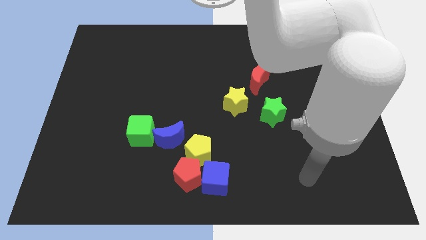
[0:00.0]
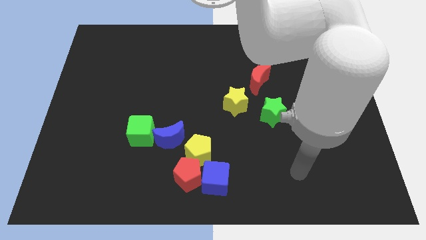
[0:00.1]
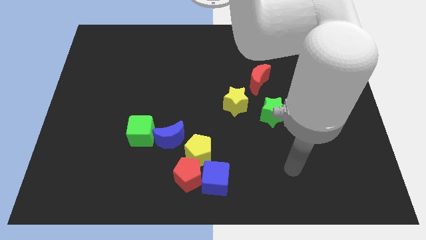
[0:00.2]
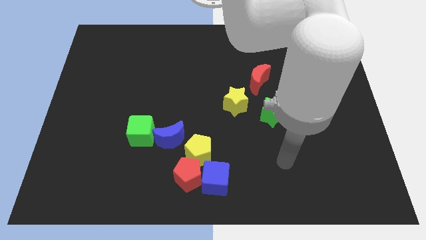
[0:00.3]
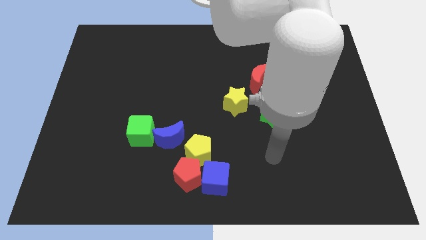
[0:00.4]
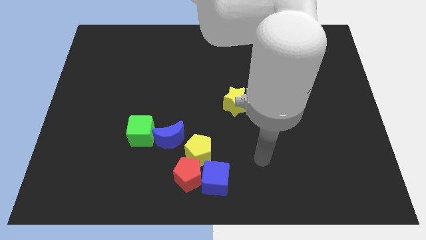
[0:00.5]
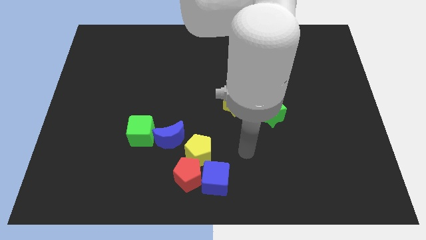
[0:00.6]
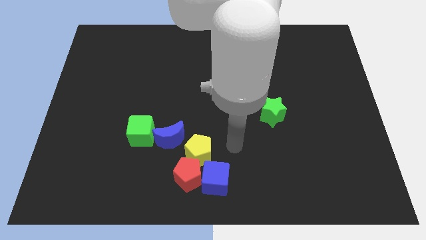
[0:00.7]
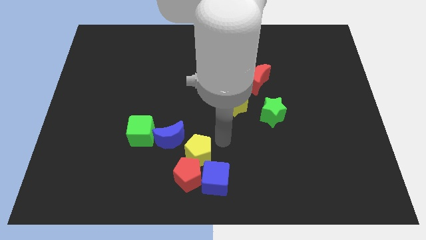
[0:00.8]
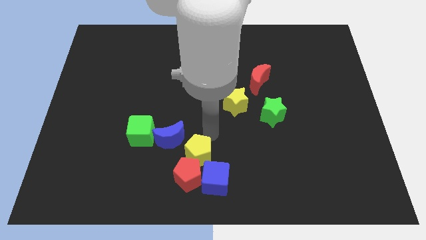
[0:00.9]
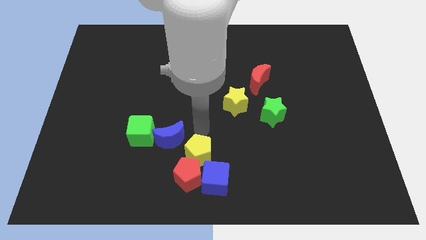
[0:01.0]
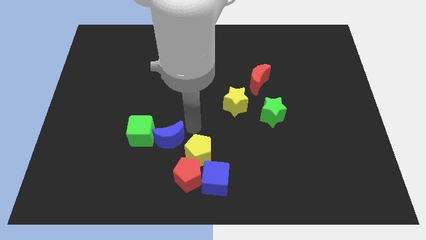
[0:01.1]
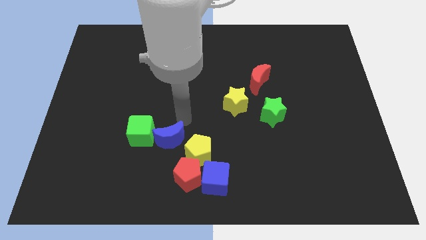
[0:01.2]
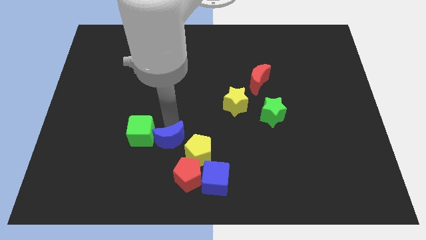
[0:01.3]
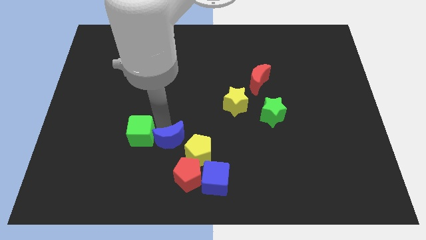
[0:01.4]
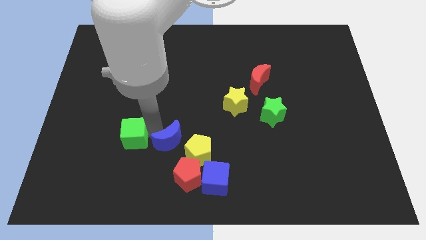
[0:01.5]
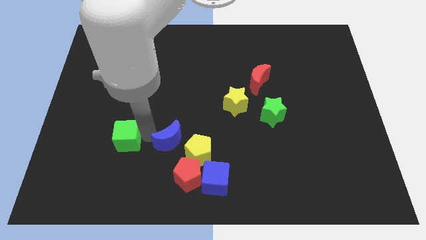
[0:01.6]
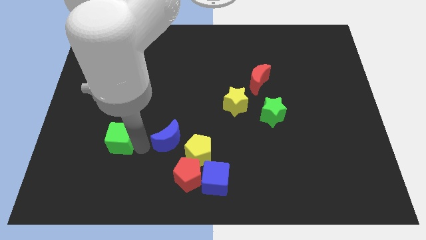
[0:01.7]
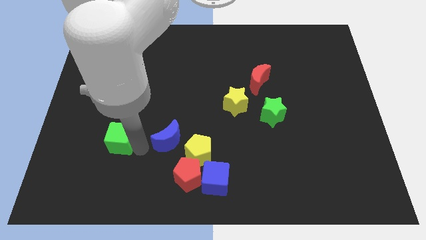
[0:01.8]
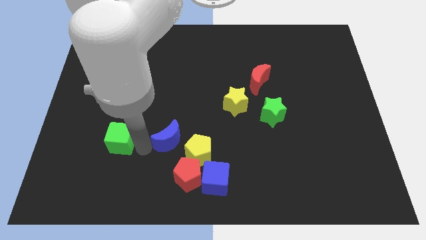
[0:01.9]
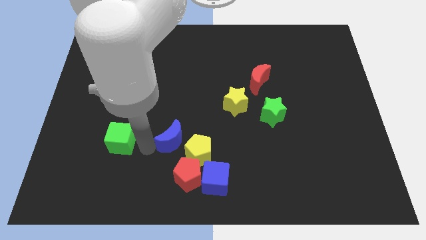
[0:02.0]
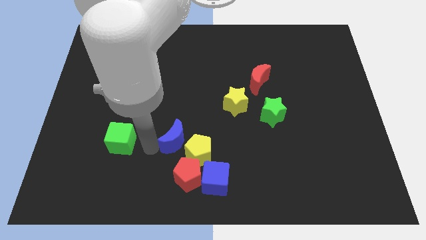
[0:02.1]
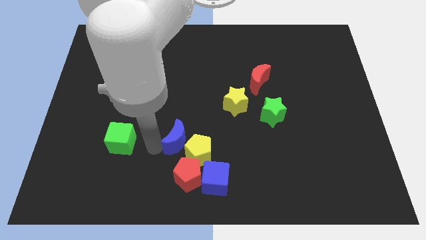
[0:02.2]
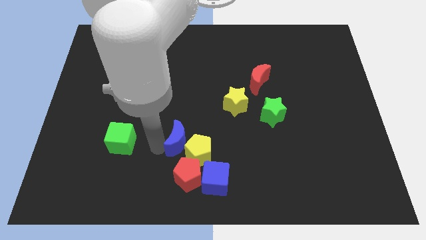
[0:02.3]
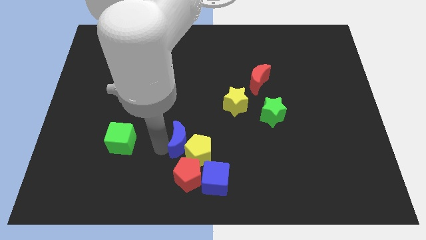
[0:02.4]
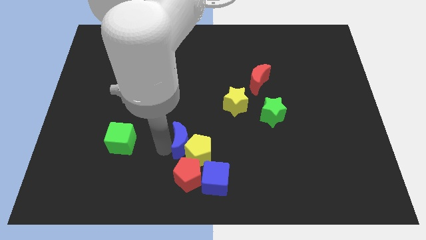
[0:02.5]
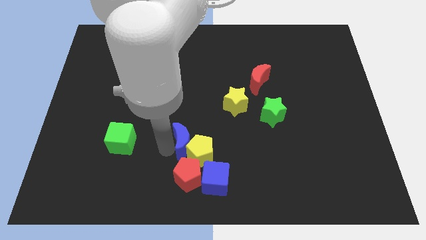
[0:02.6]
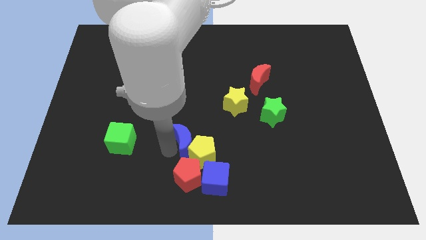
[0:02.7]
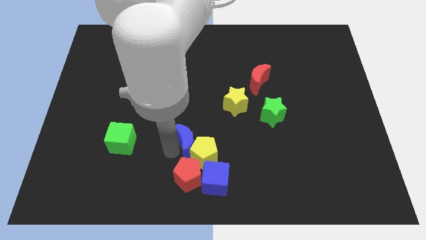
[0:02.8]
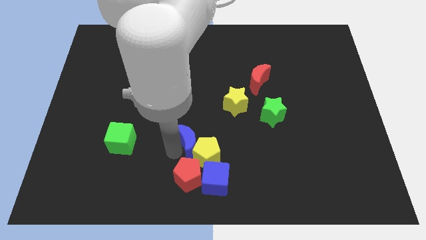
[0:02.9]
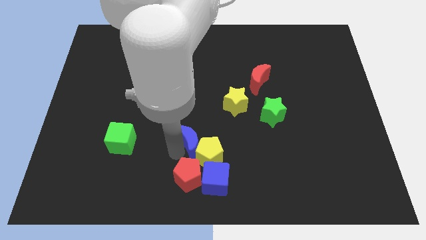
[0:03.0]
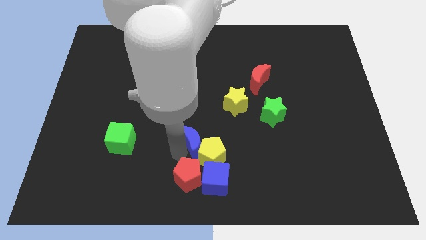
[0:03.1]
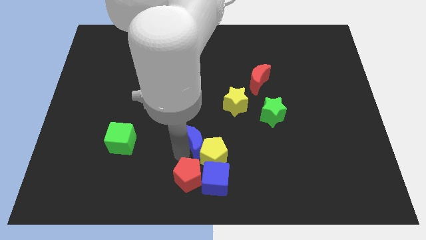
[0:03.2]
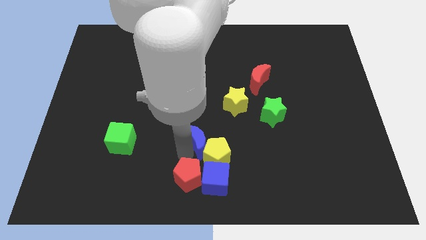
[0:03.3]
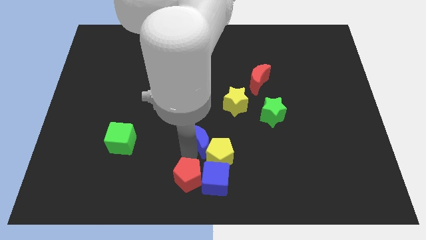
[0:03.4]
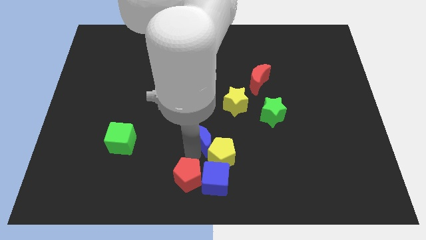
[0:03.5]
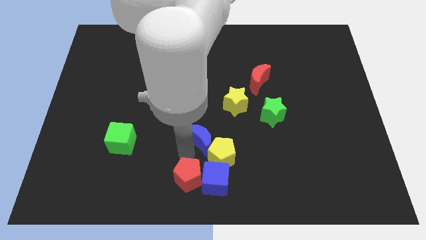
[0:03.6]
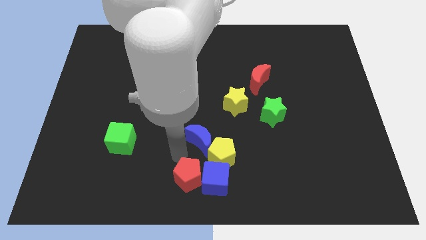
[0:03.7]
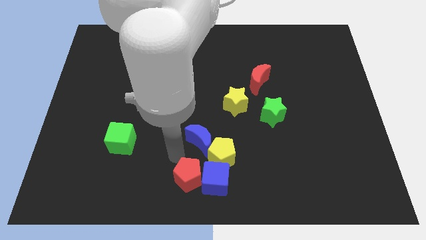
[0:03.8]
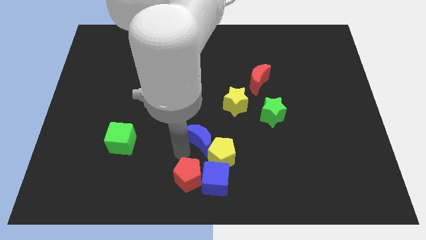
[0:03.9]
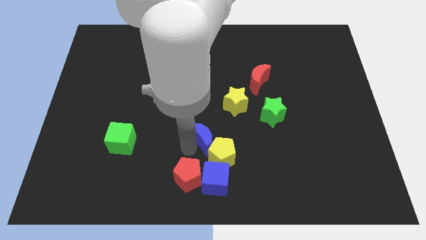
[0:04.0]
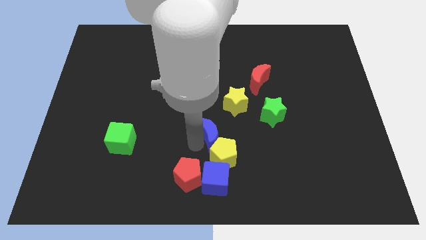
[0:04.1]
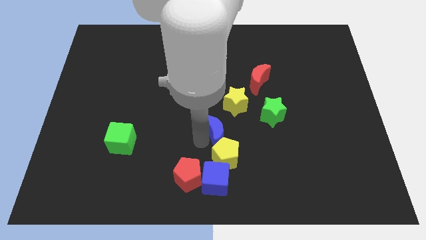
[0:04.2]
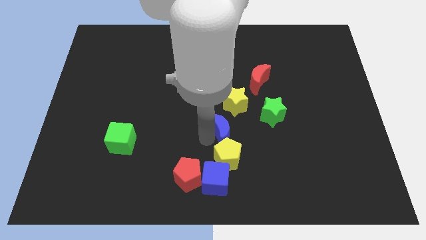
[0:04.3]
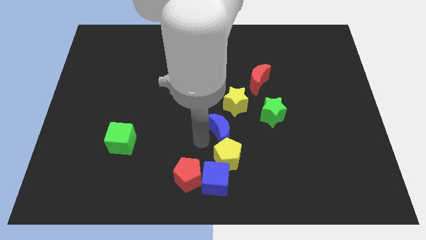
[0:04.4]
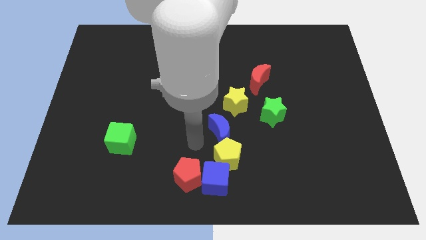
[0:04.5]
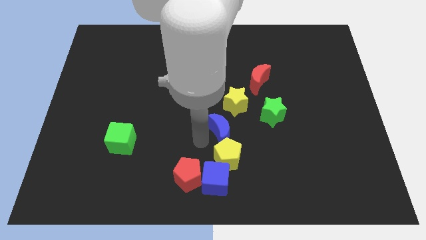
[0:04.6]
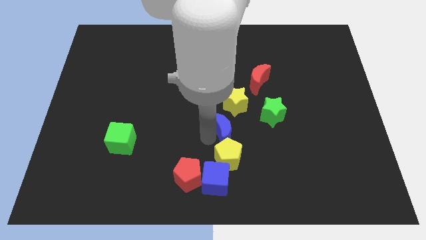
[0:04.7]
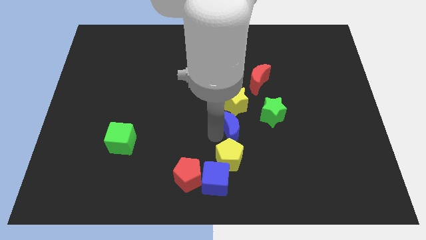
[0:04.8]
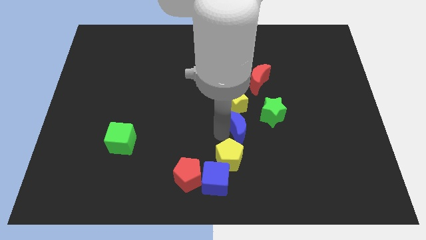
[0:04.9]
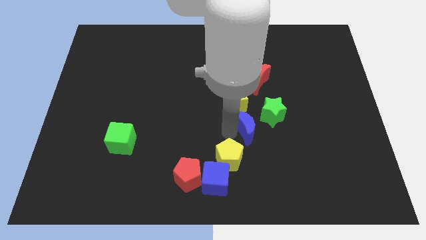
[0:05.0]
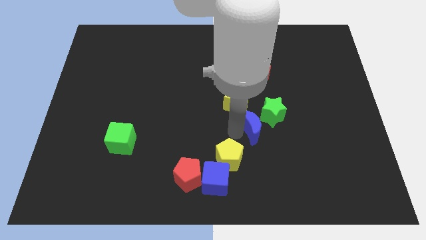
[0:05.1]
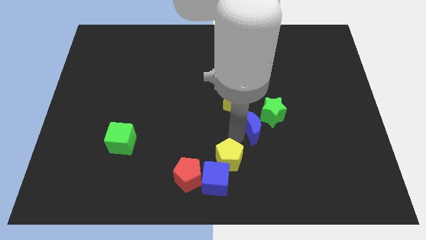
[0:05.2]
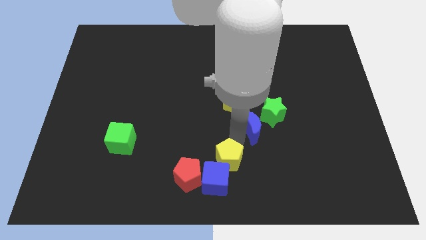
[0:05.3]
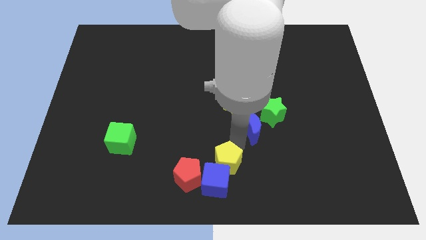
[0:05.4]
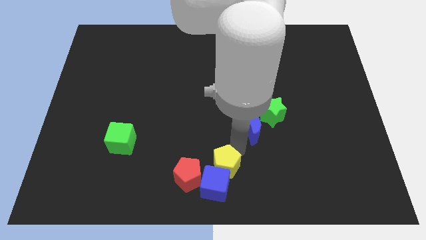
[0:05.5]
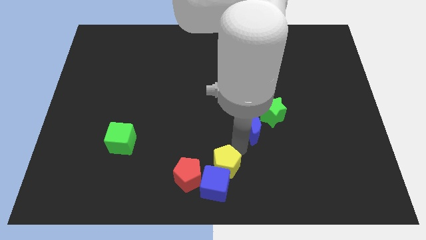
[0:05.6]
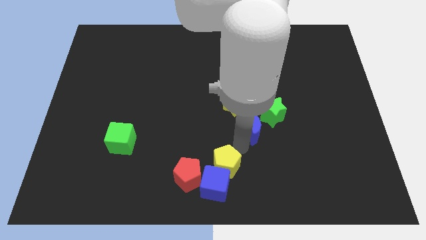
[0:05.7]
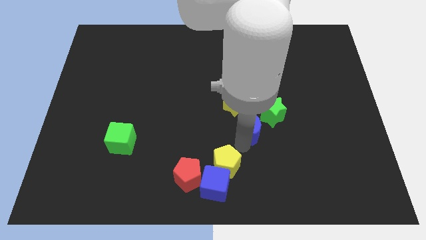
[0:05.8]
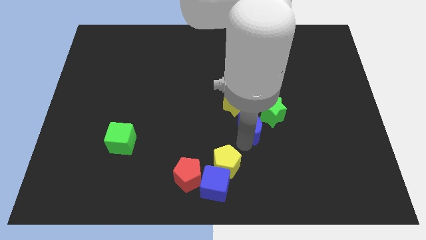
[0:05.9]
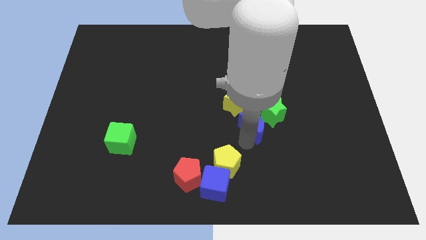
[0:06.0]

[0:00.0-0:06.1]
put the blue moon towards the green star
